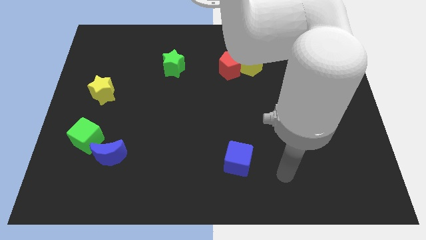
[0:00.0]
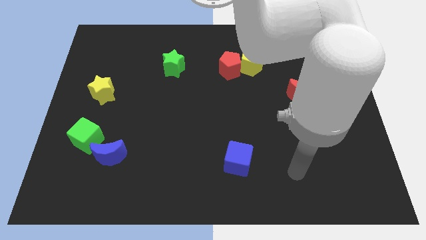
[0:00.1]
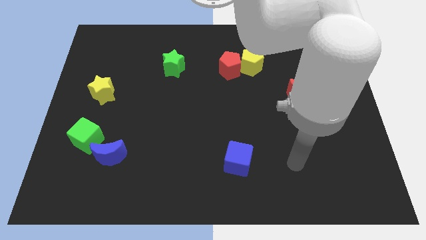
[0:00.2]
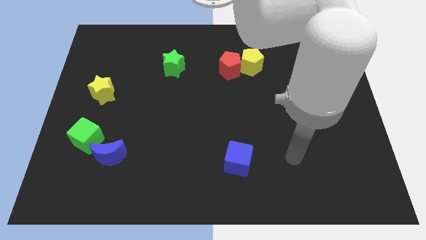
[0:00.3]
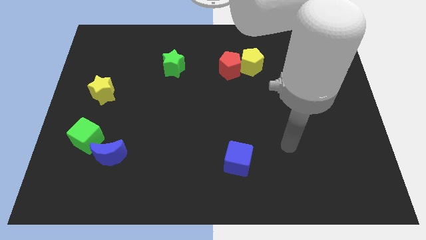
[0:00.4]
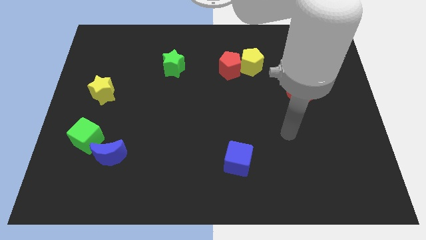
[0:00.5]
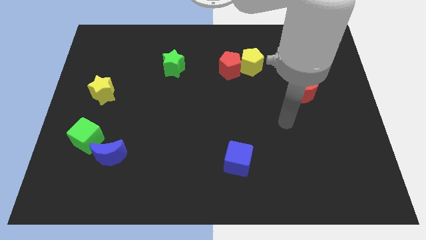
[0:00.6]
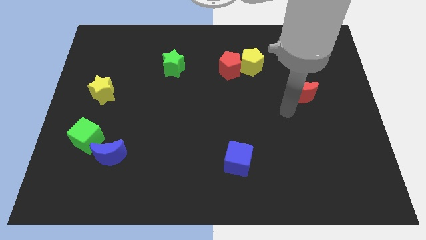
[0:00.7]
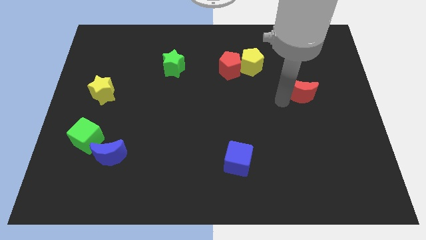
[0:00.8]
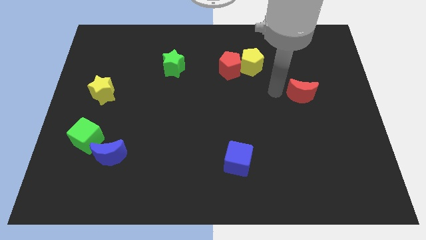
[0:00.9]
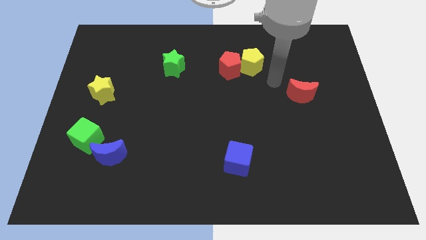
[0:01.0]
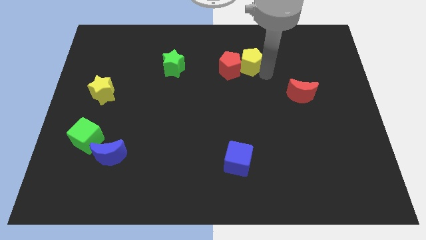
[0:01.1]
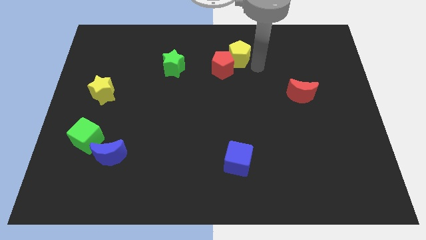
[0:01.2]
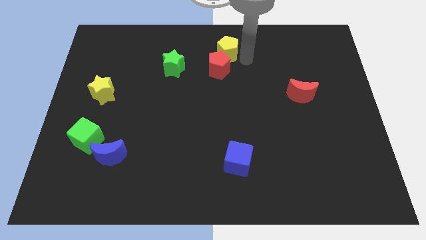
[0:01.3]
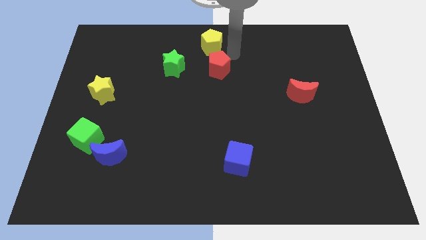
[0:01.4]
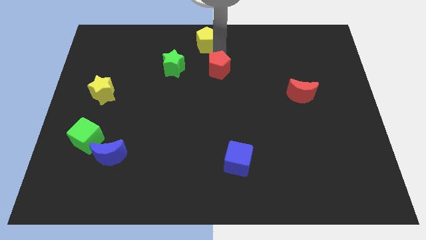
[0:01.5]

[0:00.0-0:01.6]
separate the red pentagon from the yellow pentagon

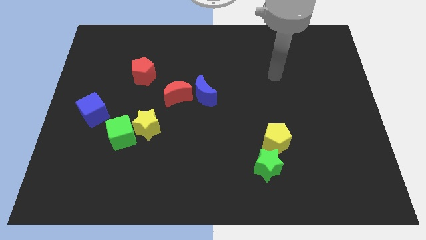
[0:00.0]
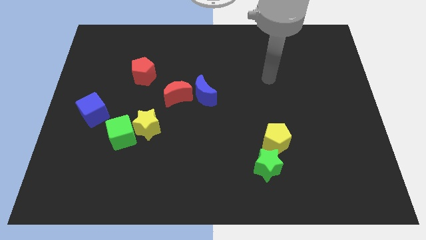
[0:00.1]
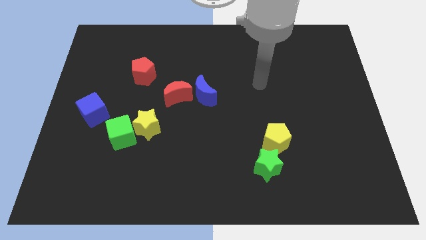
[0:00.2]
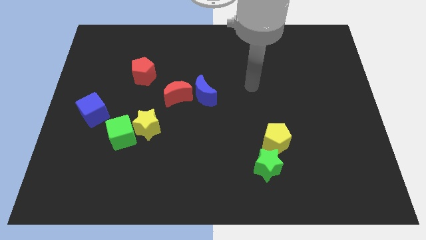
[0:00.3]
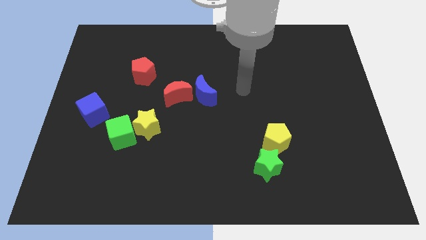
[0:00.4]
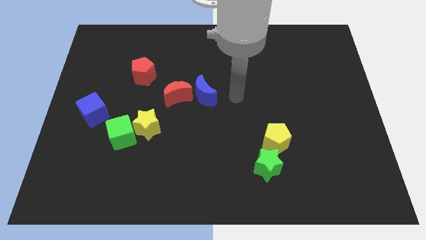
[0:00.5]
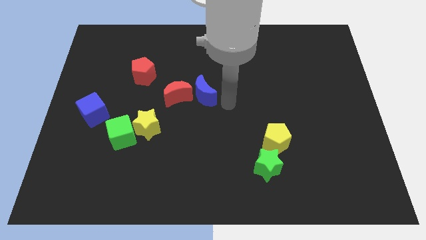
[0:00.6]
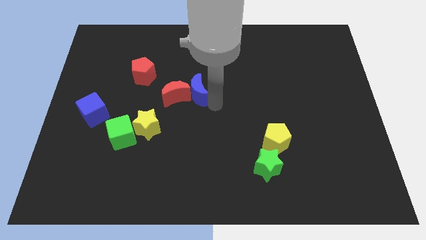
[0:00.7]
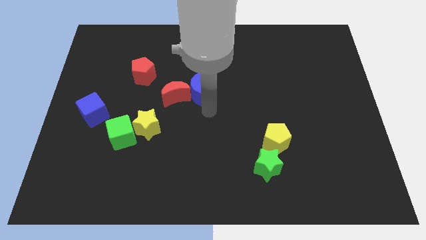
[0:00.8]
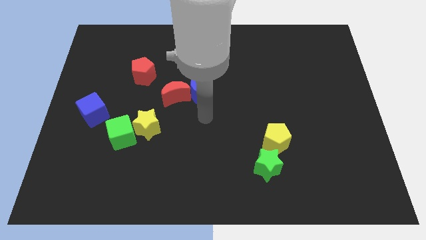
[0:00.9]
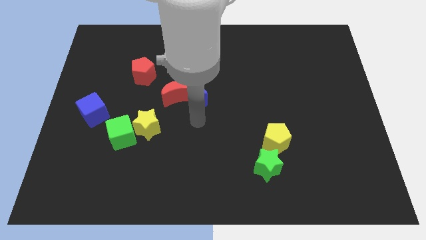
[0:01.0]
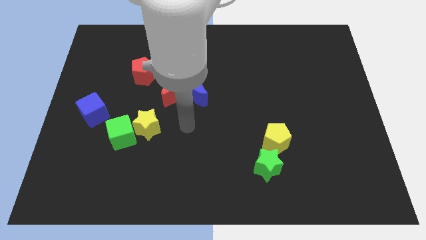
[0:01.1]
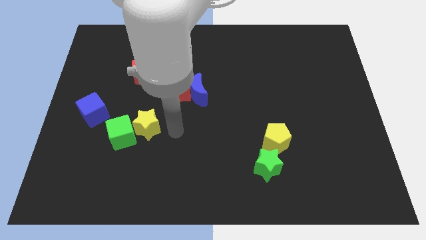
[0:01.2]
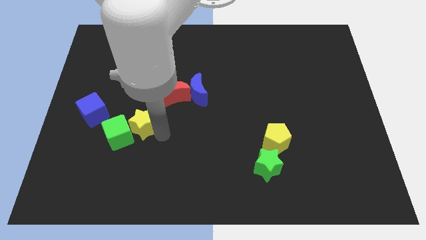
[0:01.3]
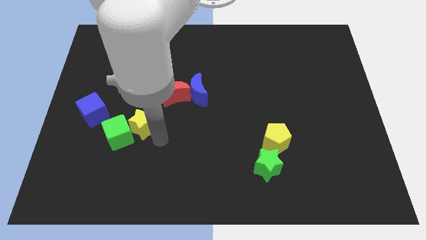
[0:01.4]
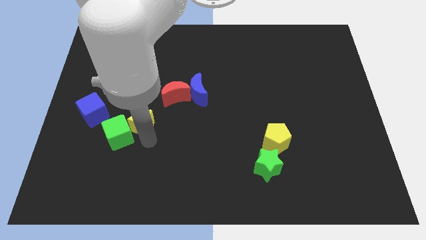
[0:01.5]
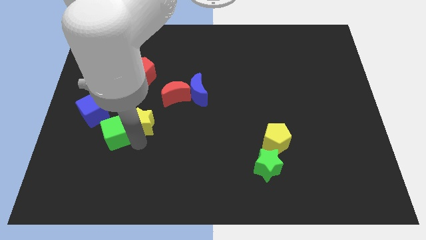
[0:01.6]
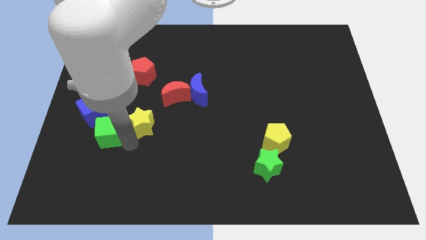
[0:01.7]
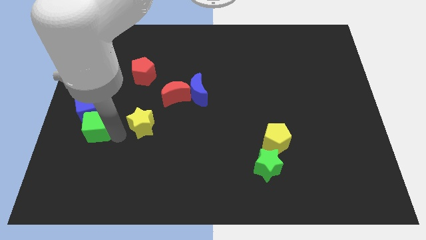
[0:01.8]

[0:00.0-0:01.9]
pull the yellow star apart from the green cube

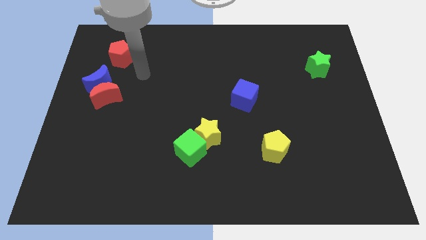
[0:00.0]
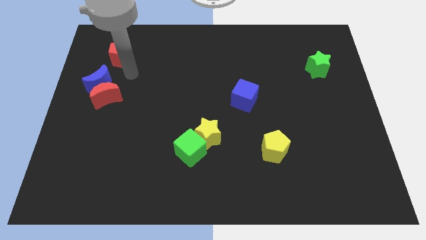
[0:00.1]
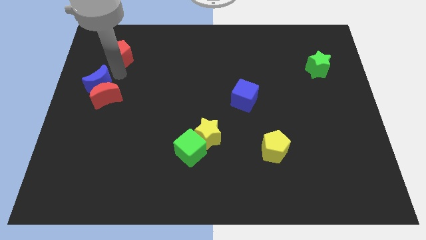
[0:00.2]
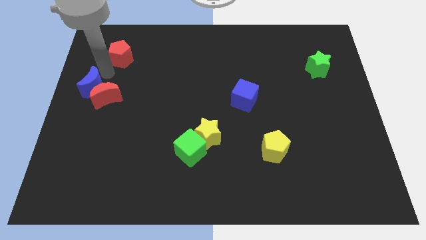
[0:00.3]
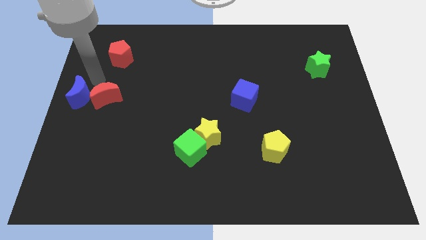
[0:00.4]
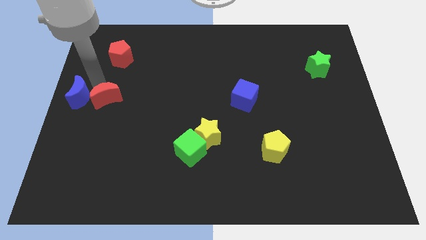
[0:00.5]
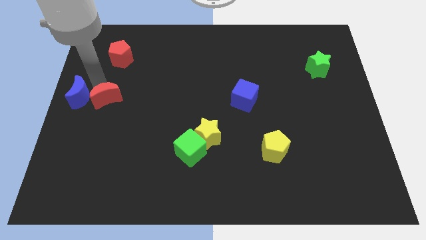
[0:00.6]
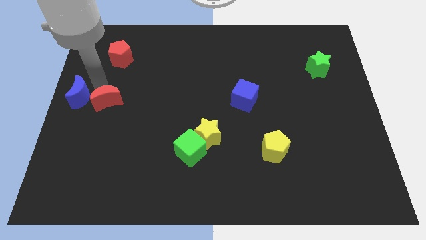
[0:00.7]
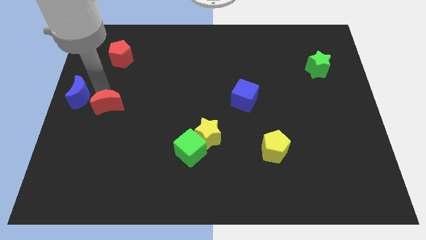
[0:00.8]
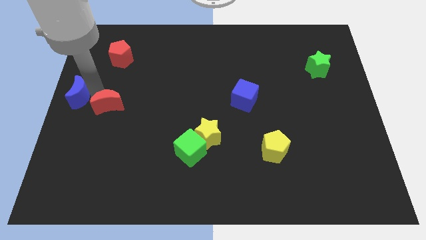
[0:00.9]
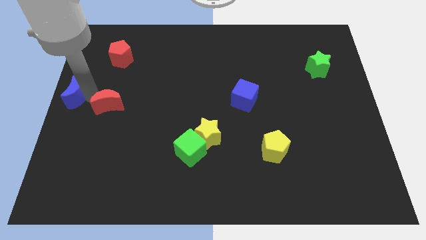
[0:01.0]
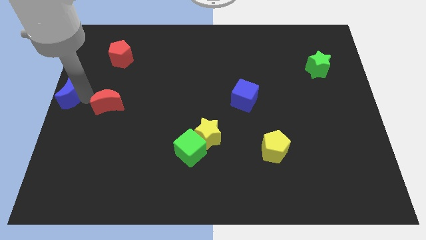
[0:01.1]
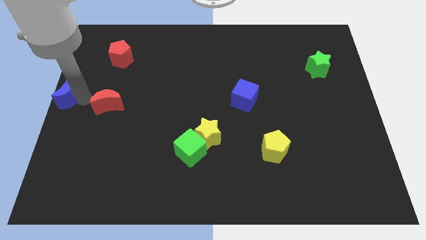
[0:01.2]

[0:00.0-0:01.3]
separate the red moon from the blue moon

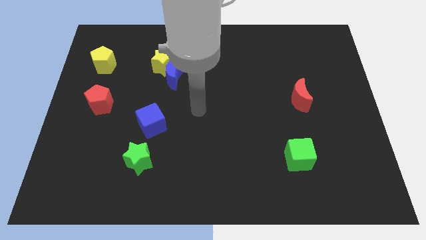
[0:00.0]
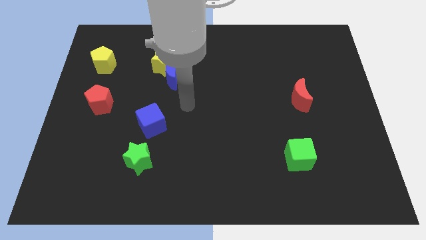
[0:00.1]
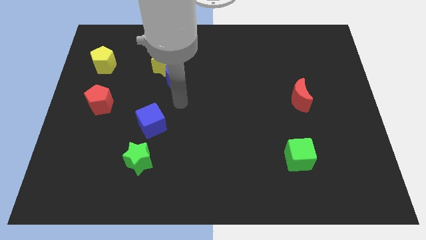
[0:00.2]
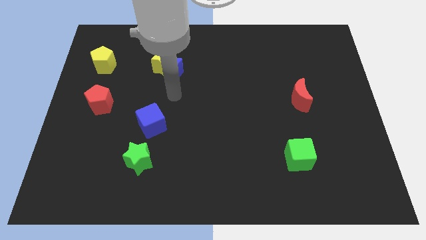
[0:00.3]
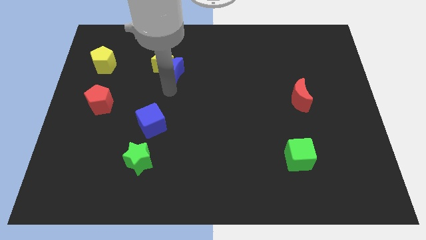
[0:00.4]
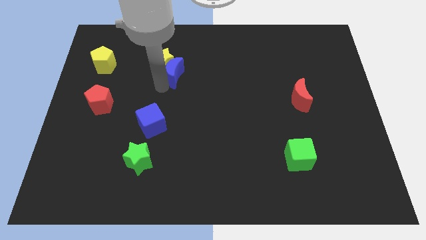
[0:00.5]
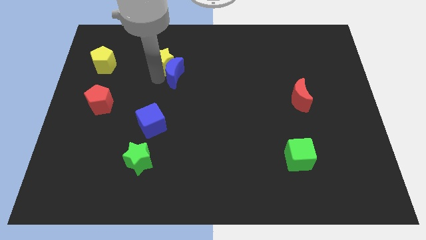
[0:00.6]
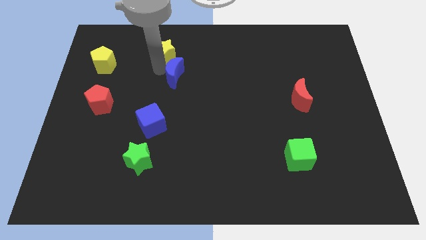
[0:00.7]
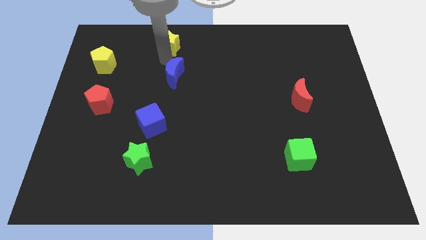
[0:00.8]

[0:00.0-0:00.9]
move the blue moon away from the yellow star

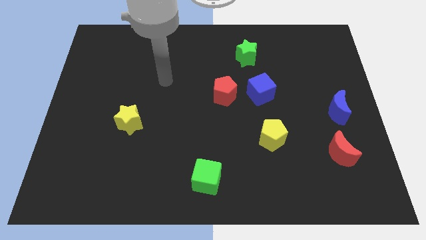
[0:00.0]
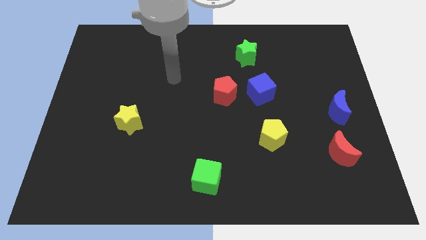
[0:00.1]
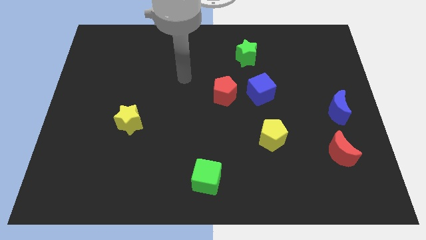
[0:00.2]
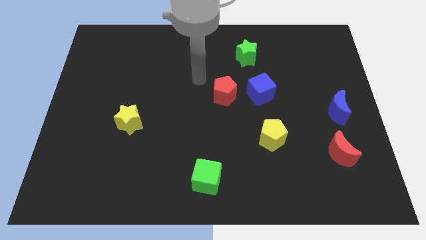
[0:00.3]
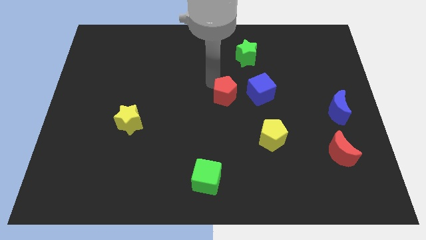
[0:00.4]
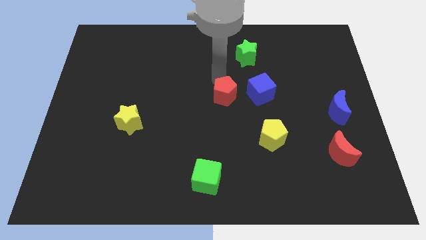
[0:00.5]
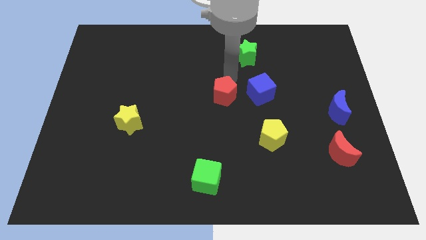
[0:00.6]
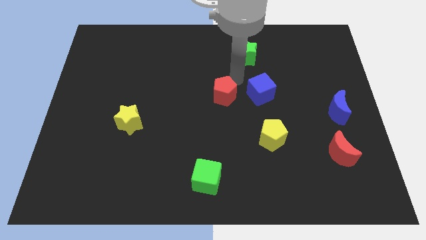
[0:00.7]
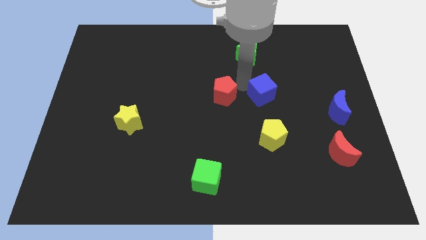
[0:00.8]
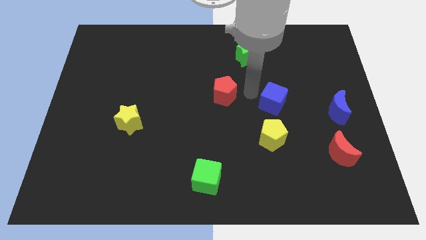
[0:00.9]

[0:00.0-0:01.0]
separate the red pentagon from the blue cube

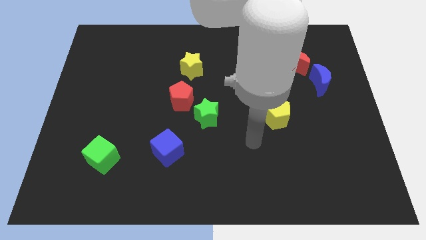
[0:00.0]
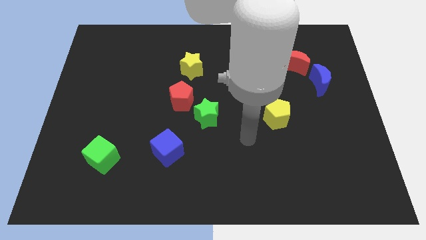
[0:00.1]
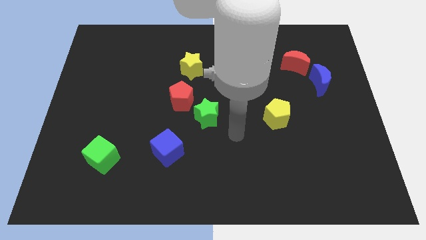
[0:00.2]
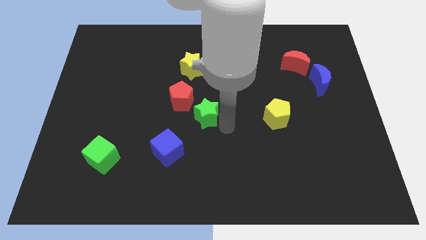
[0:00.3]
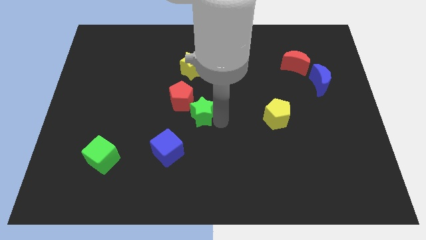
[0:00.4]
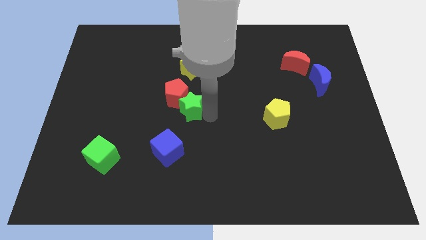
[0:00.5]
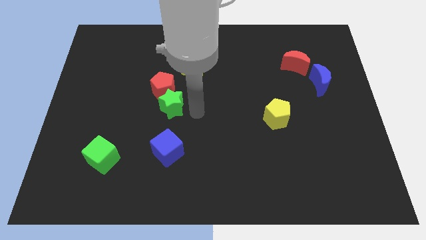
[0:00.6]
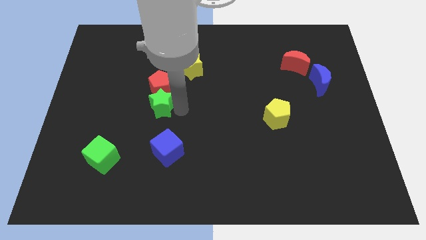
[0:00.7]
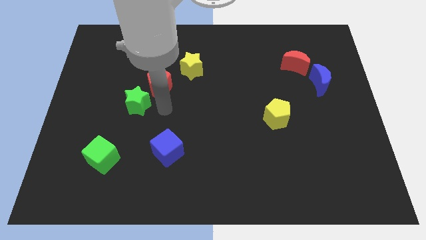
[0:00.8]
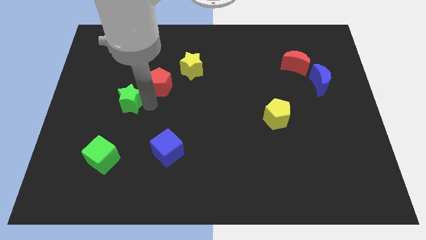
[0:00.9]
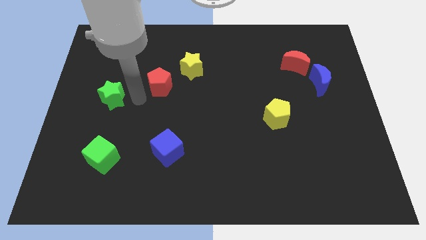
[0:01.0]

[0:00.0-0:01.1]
move the red pentagon away from the green star

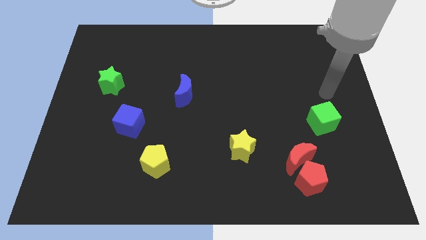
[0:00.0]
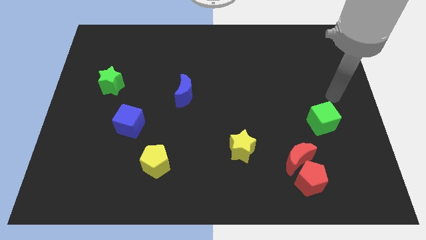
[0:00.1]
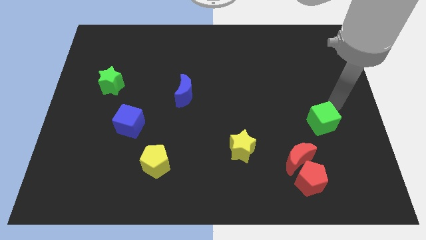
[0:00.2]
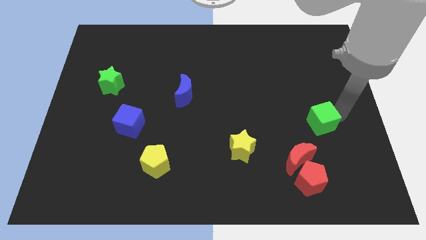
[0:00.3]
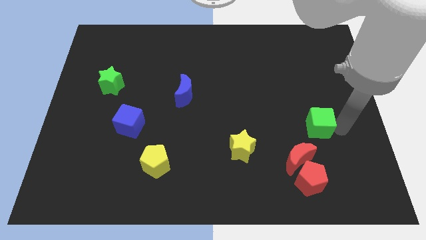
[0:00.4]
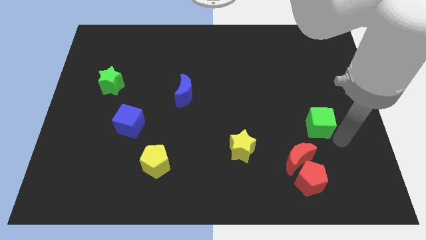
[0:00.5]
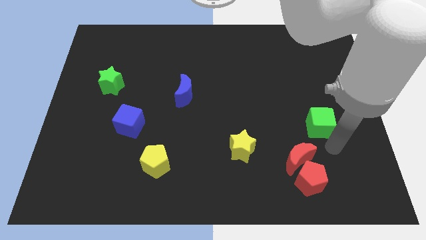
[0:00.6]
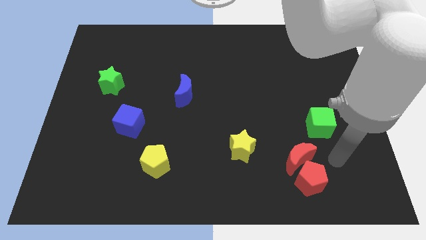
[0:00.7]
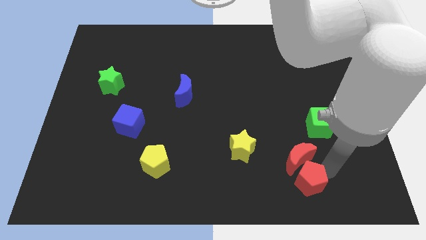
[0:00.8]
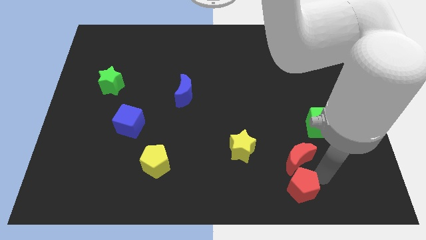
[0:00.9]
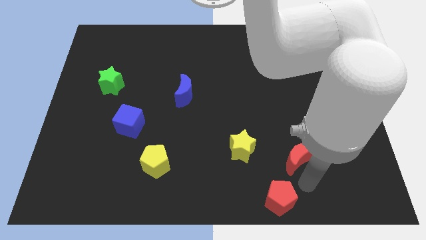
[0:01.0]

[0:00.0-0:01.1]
pull the red moon apart from the red pentagon

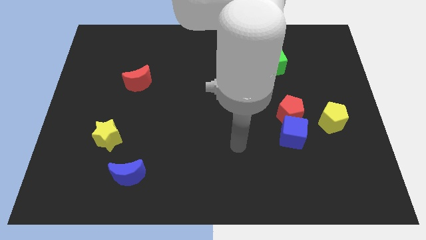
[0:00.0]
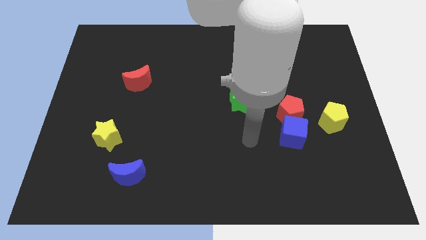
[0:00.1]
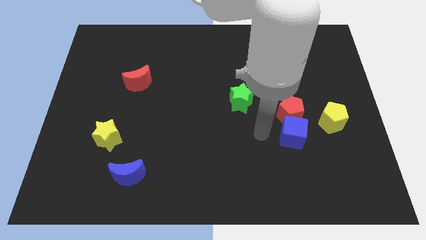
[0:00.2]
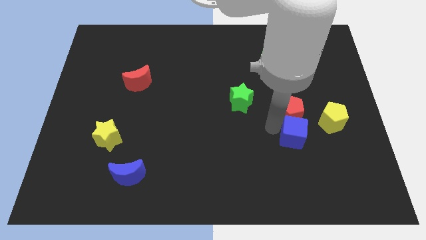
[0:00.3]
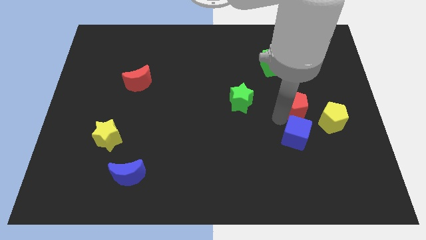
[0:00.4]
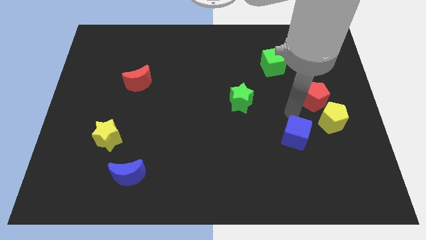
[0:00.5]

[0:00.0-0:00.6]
separate the blue cube from the red pentagon
